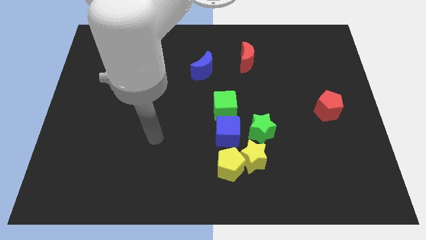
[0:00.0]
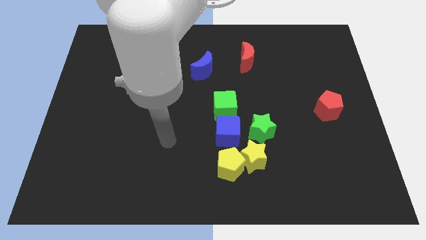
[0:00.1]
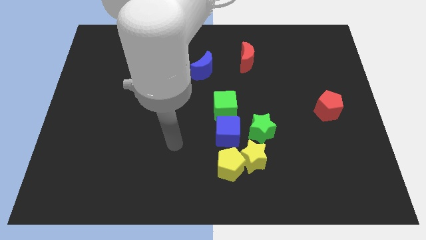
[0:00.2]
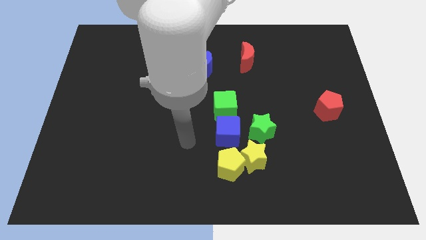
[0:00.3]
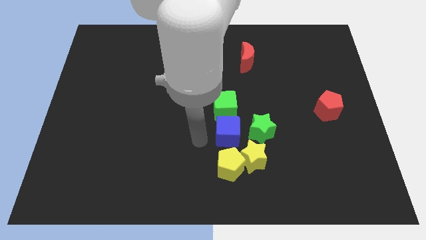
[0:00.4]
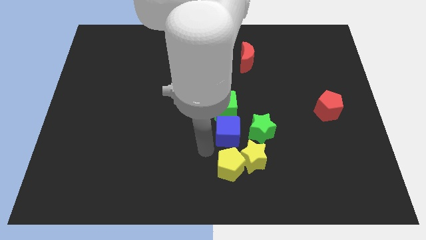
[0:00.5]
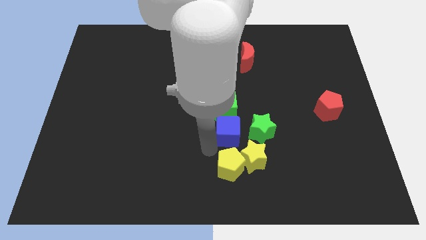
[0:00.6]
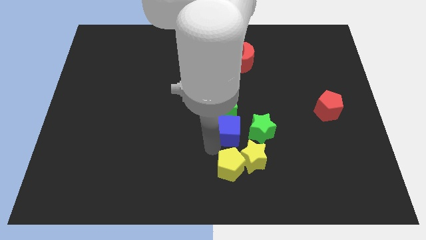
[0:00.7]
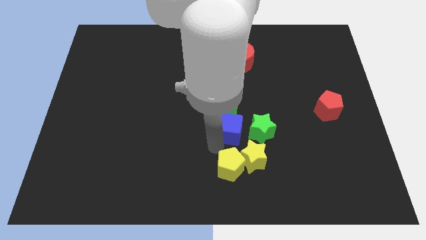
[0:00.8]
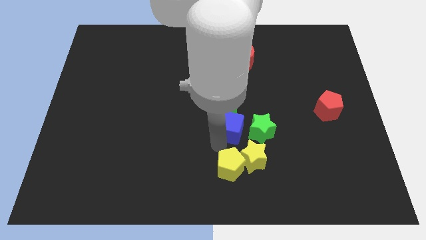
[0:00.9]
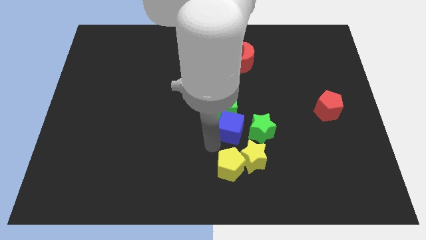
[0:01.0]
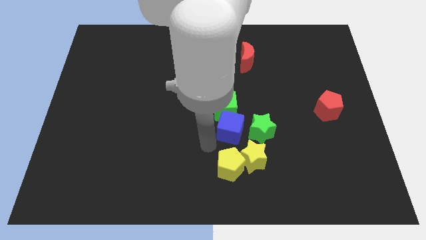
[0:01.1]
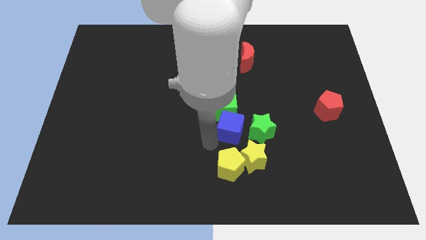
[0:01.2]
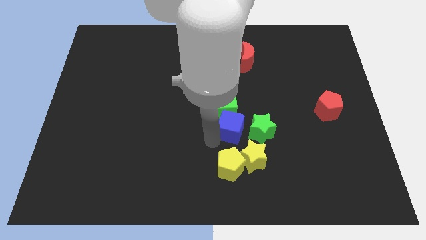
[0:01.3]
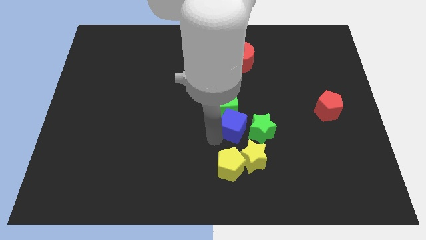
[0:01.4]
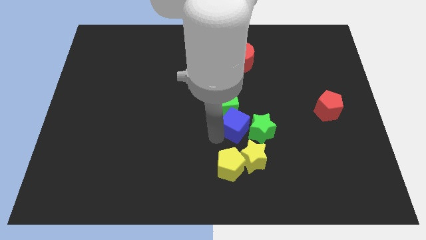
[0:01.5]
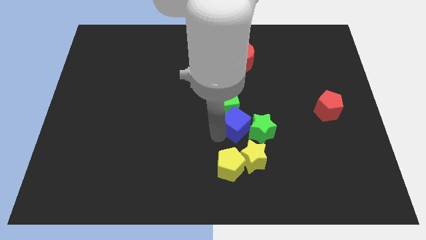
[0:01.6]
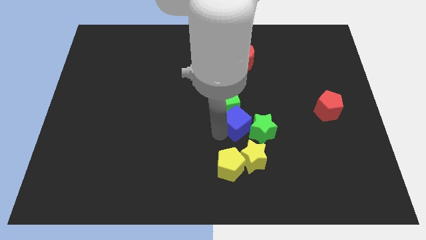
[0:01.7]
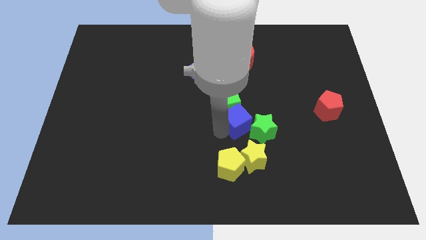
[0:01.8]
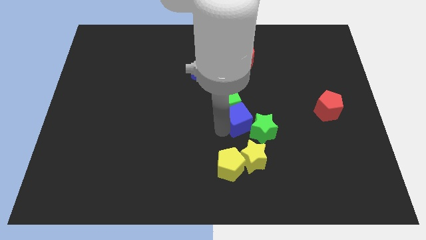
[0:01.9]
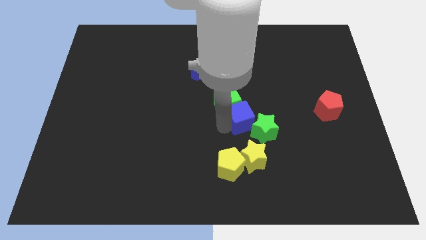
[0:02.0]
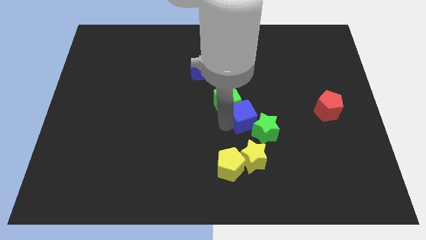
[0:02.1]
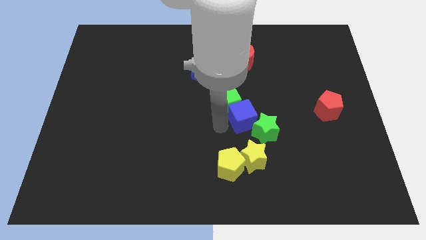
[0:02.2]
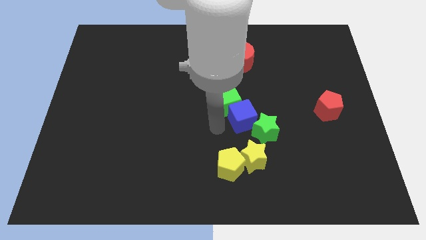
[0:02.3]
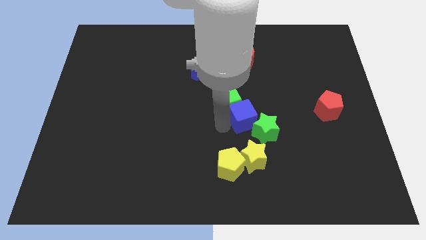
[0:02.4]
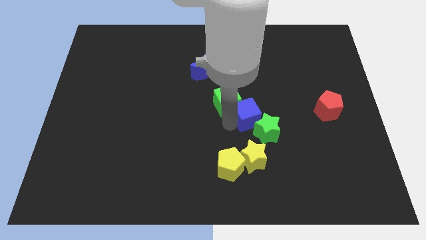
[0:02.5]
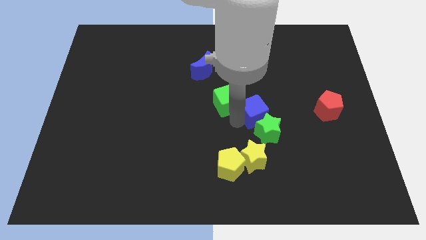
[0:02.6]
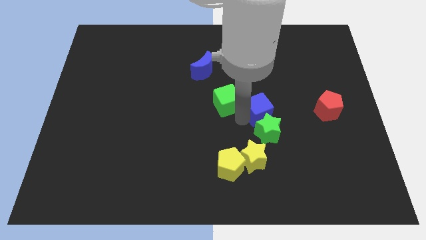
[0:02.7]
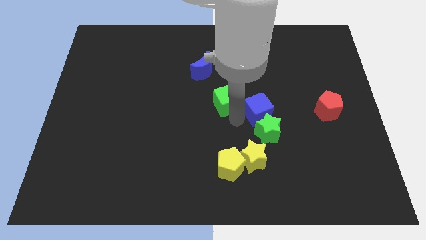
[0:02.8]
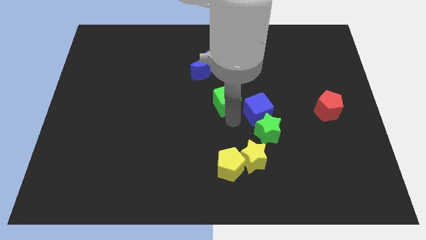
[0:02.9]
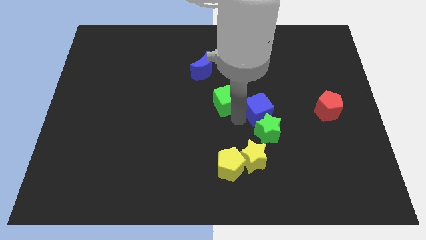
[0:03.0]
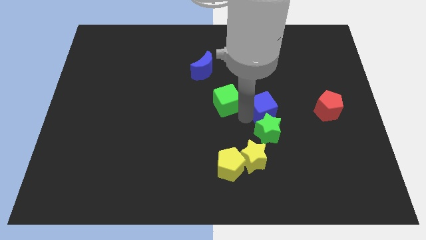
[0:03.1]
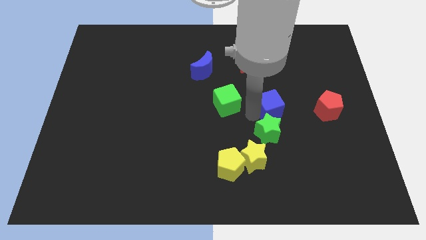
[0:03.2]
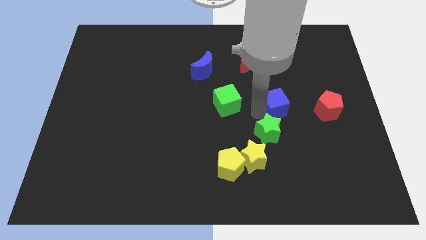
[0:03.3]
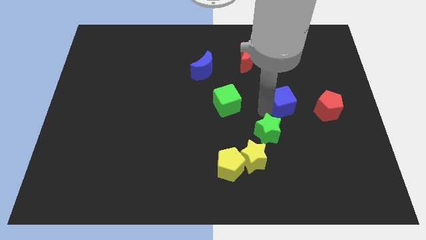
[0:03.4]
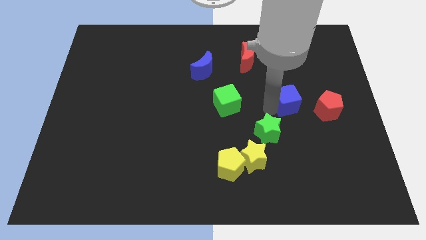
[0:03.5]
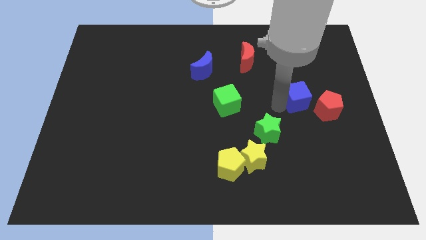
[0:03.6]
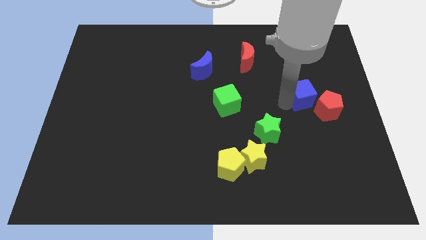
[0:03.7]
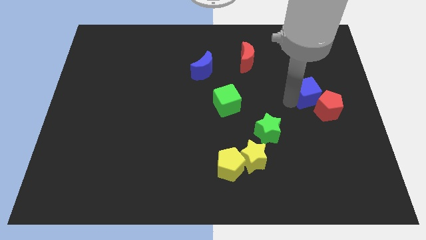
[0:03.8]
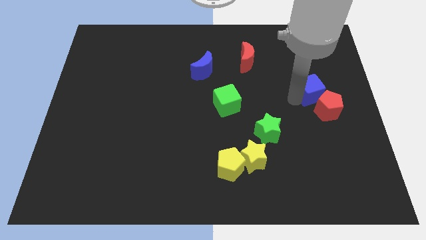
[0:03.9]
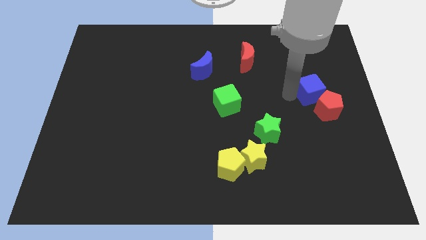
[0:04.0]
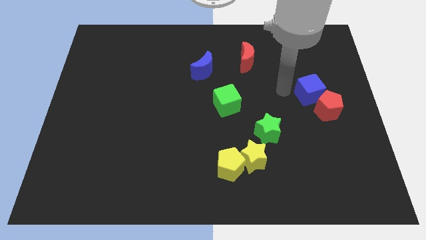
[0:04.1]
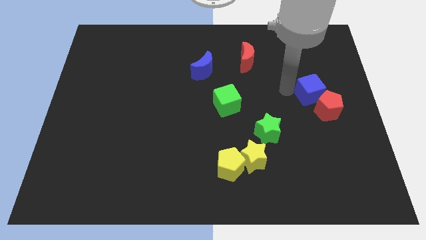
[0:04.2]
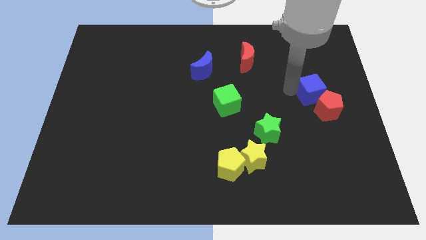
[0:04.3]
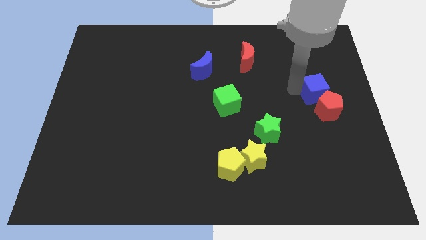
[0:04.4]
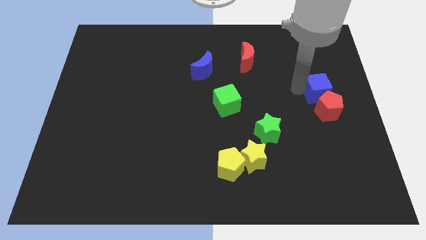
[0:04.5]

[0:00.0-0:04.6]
move the blue cube to the right side of the board

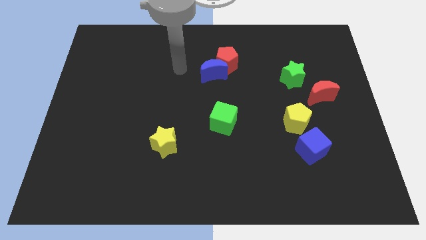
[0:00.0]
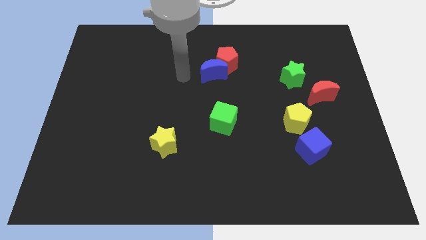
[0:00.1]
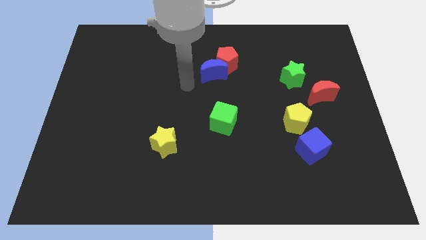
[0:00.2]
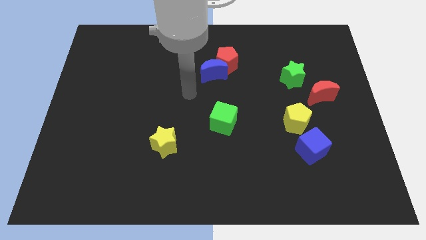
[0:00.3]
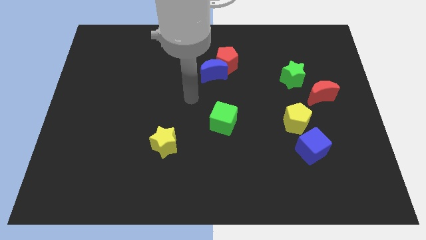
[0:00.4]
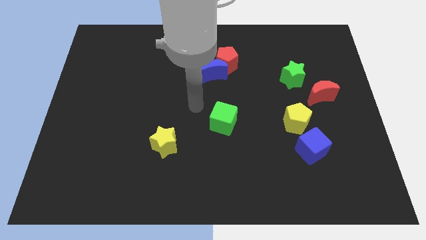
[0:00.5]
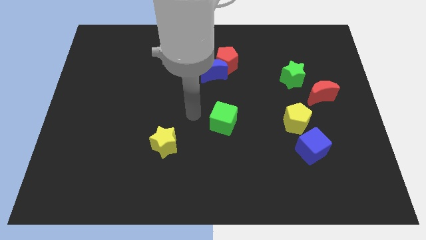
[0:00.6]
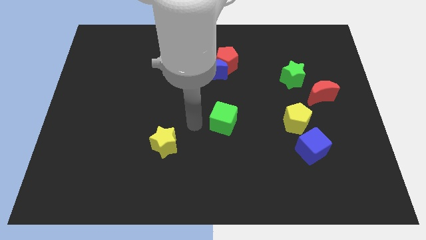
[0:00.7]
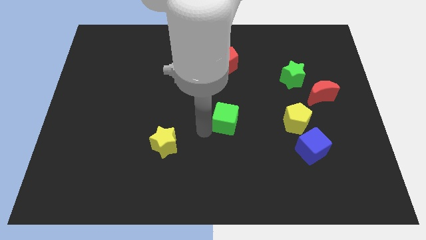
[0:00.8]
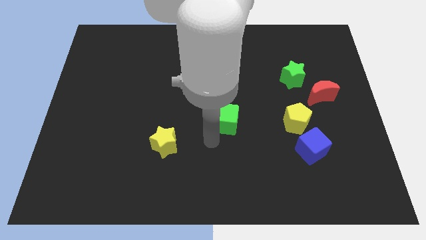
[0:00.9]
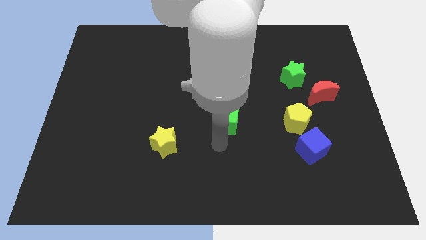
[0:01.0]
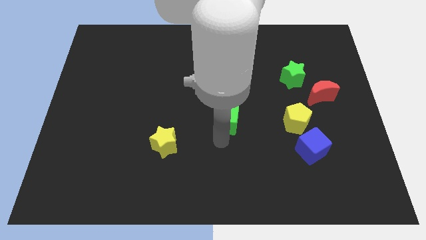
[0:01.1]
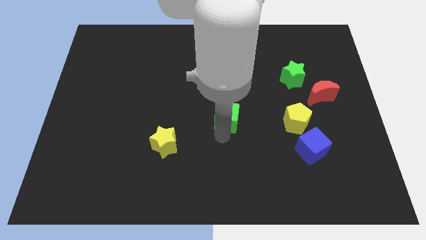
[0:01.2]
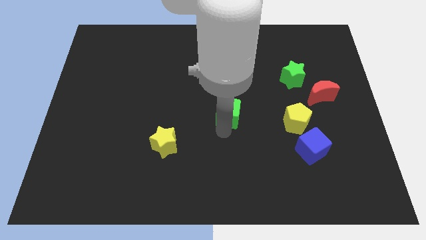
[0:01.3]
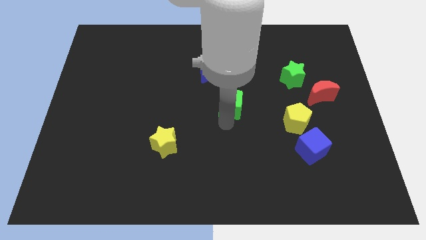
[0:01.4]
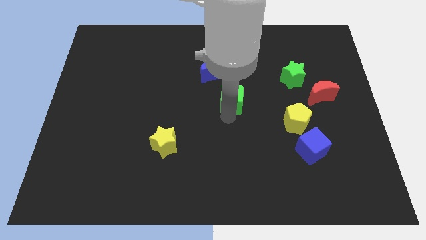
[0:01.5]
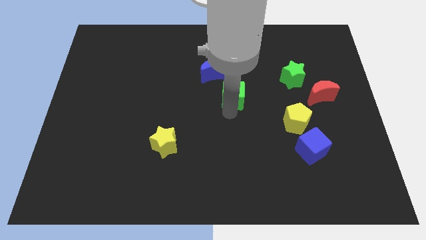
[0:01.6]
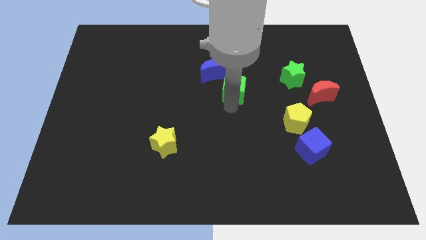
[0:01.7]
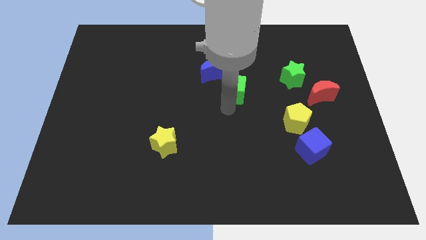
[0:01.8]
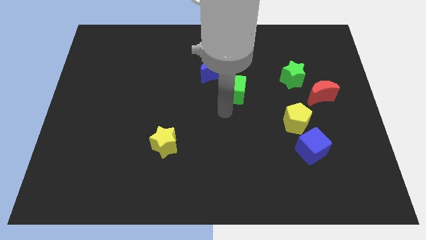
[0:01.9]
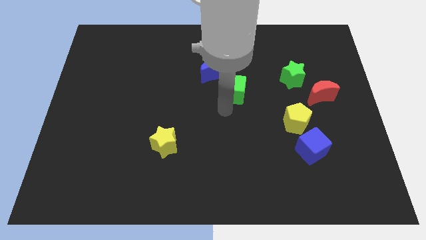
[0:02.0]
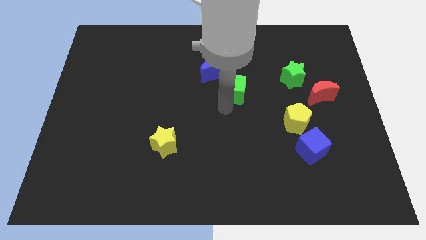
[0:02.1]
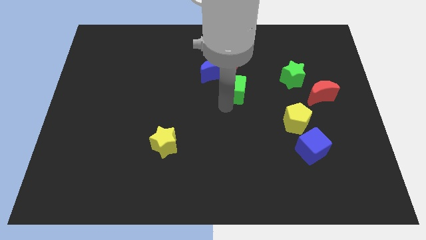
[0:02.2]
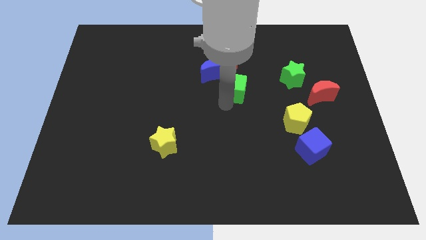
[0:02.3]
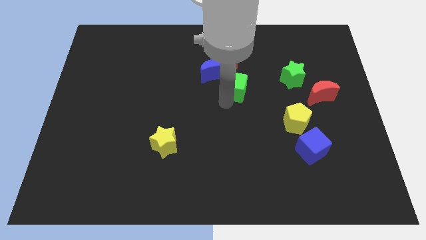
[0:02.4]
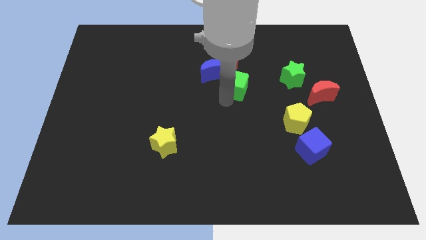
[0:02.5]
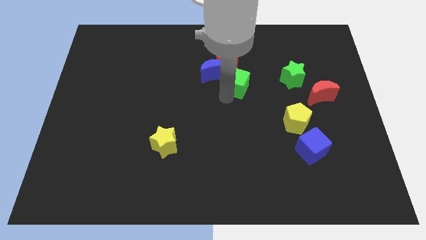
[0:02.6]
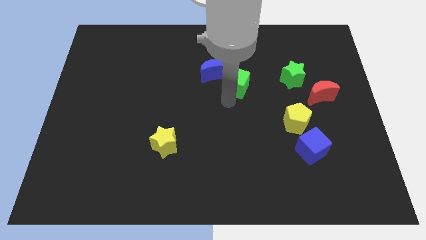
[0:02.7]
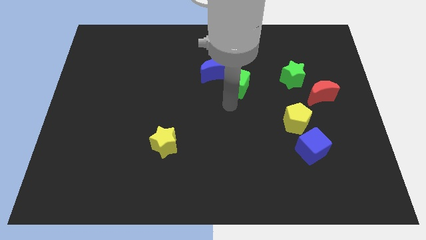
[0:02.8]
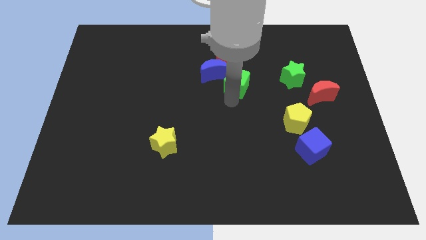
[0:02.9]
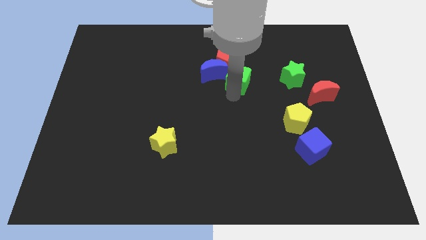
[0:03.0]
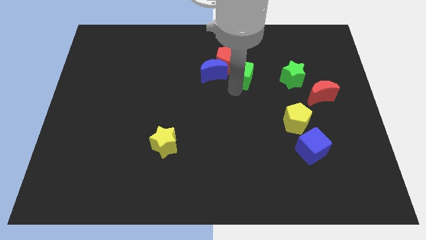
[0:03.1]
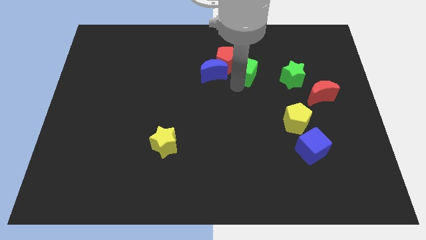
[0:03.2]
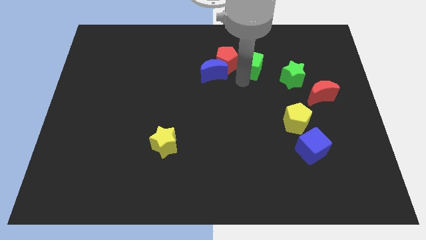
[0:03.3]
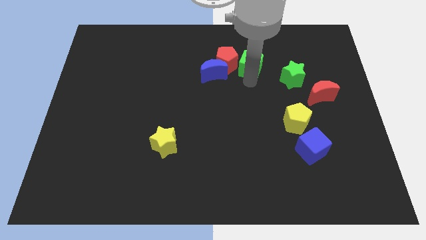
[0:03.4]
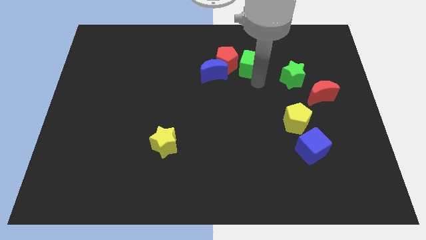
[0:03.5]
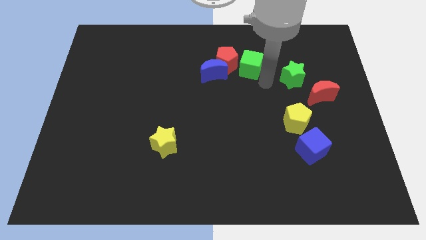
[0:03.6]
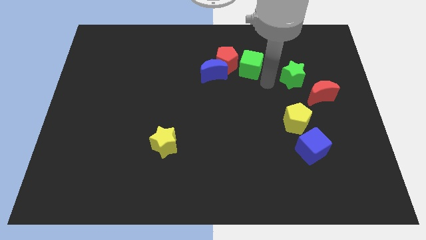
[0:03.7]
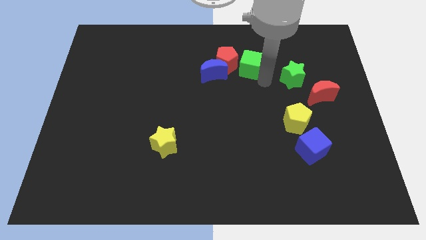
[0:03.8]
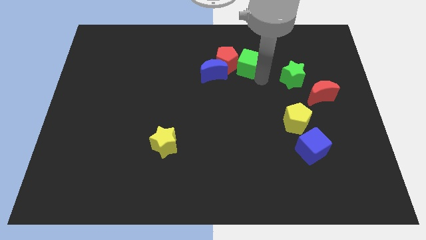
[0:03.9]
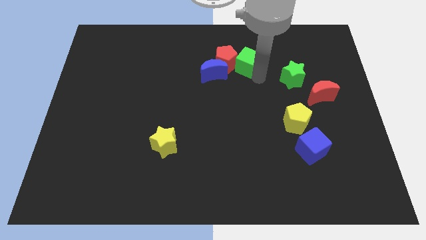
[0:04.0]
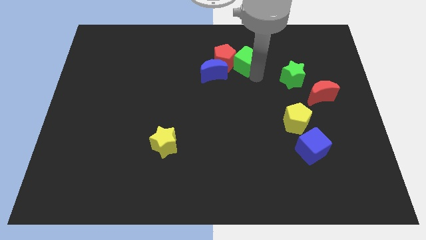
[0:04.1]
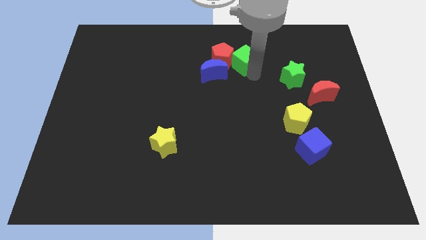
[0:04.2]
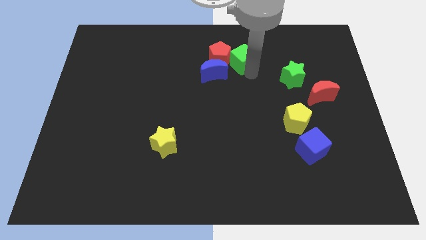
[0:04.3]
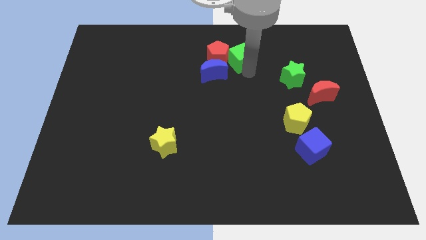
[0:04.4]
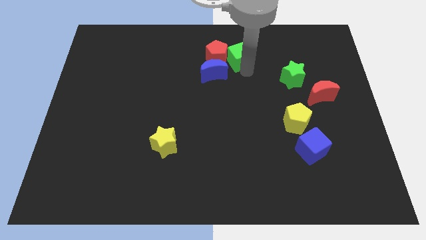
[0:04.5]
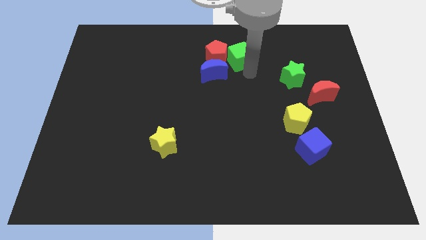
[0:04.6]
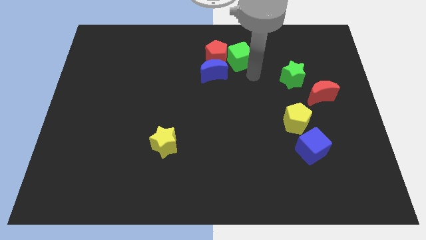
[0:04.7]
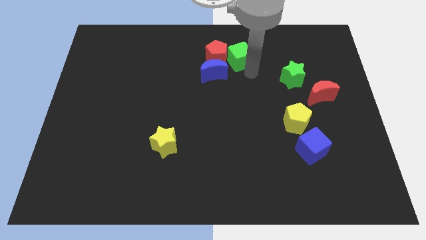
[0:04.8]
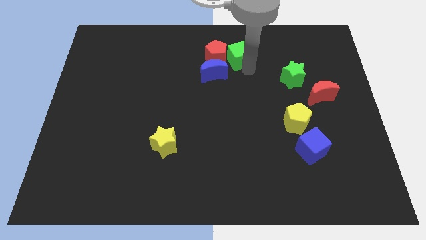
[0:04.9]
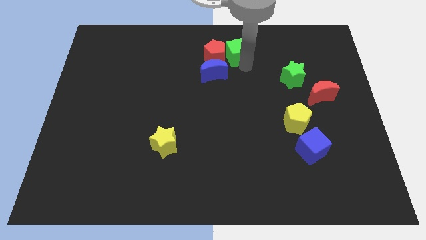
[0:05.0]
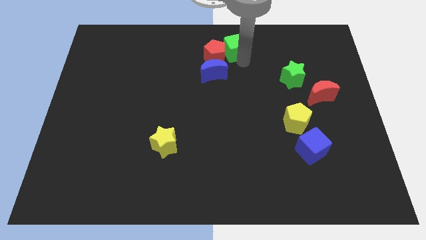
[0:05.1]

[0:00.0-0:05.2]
put the green cube to the towards your base
